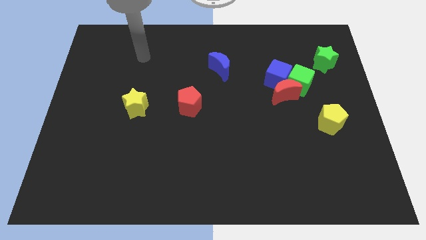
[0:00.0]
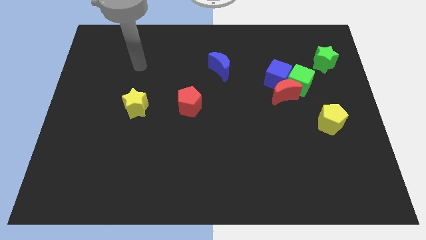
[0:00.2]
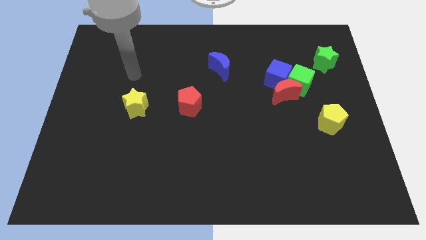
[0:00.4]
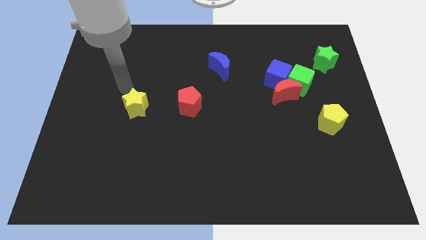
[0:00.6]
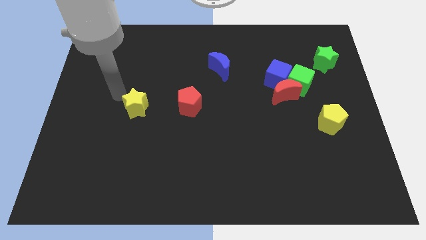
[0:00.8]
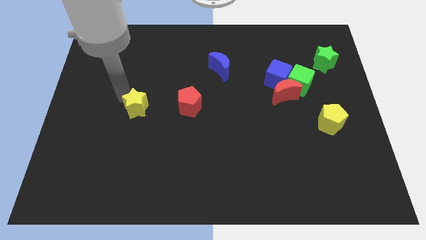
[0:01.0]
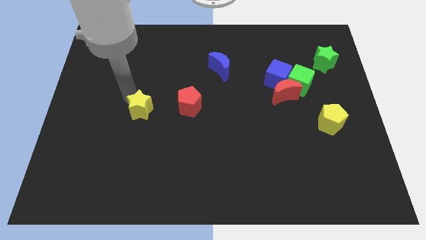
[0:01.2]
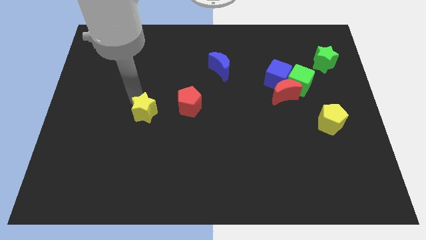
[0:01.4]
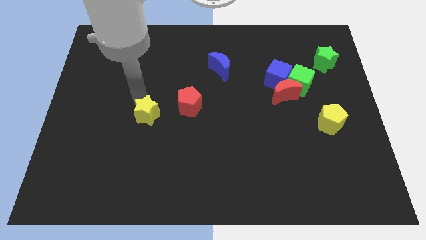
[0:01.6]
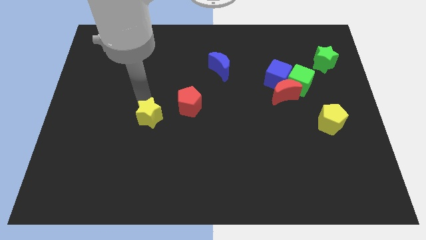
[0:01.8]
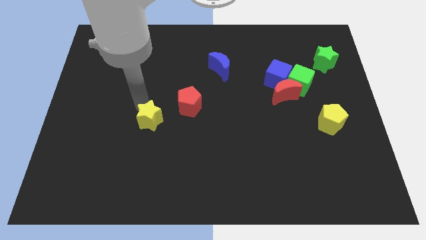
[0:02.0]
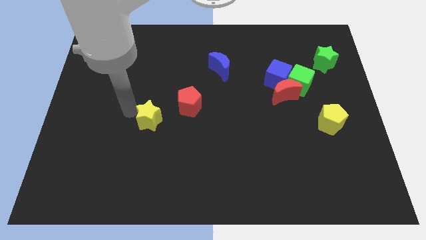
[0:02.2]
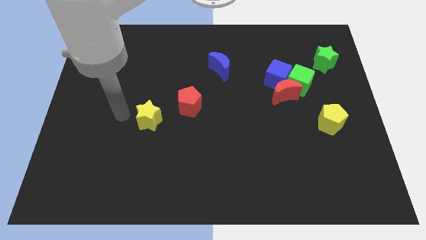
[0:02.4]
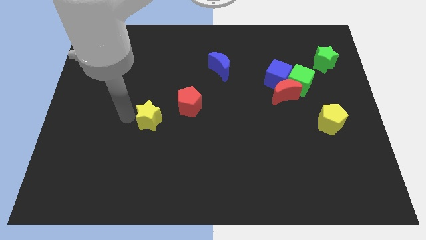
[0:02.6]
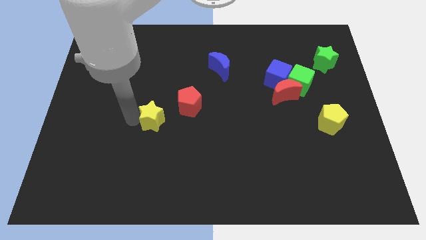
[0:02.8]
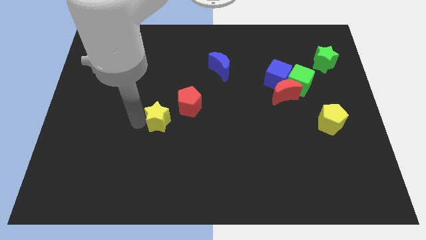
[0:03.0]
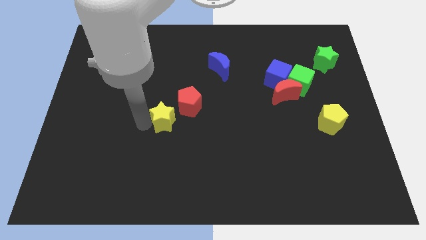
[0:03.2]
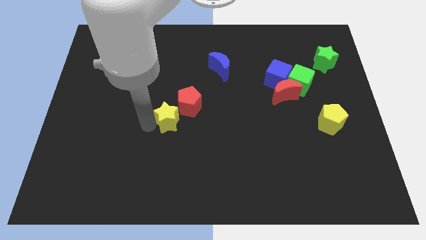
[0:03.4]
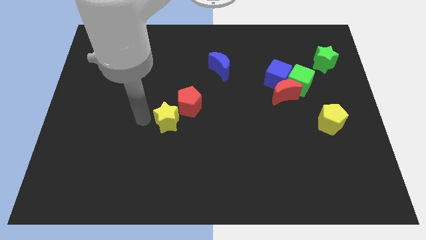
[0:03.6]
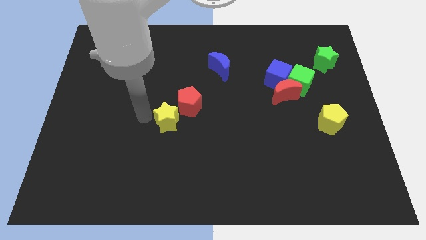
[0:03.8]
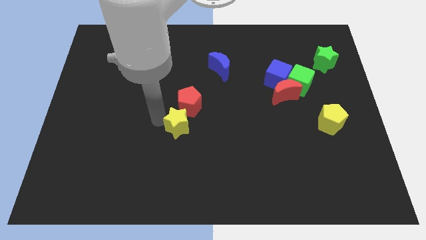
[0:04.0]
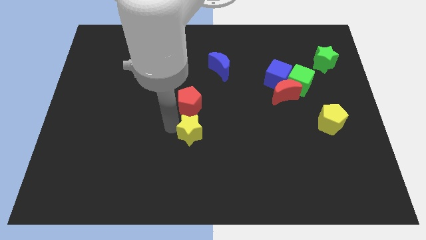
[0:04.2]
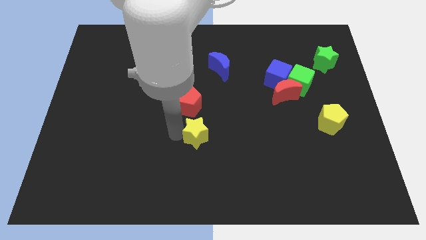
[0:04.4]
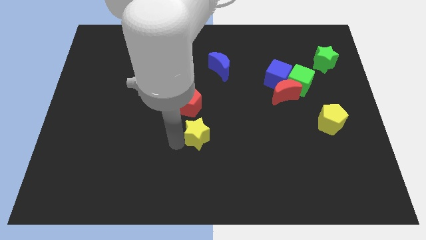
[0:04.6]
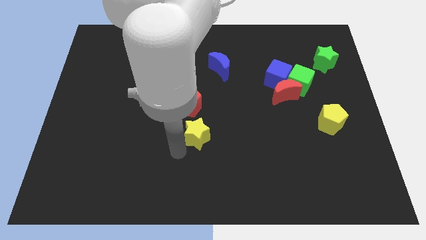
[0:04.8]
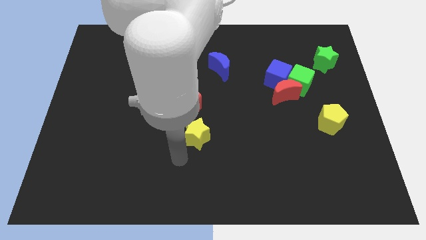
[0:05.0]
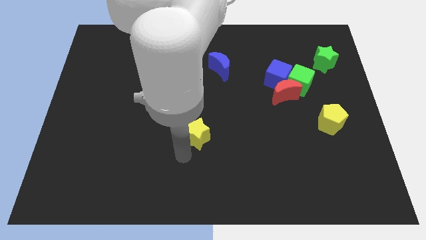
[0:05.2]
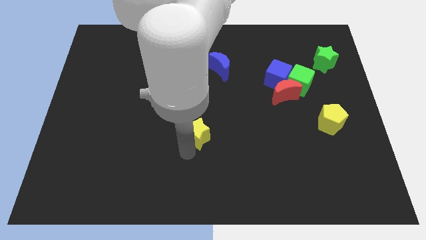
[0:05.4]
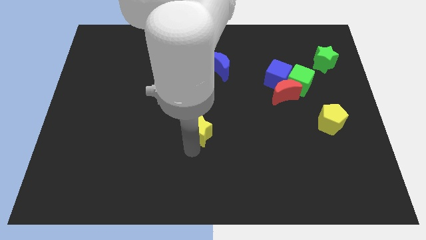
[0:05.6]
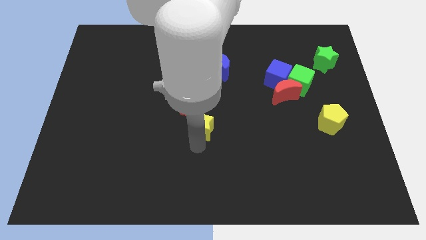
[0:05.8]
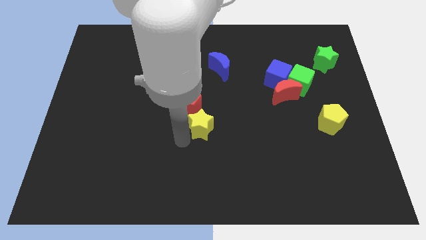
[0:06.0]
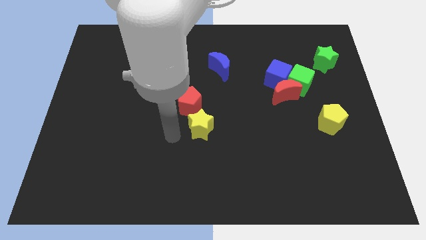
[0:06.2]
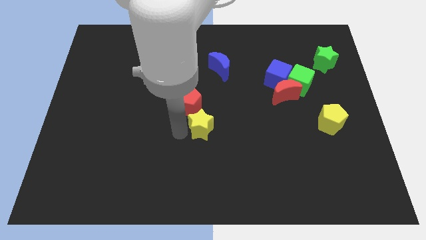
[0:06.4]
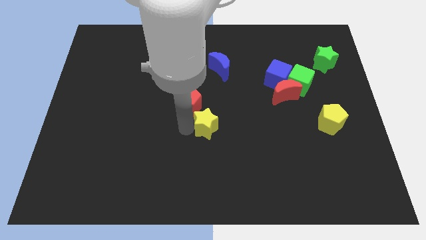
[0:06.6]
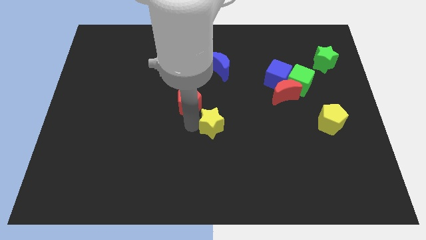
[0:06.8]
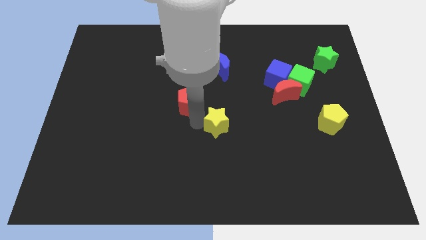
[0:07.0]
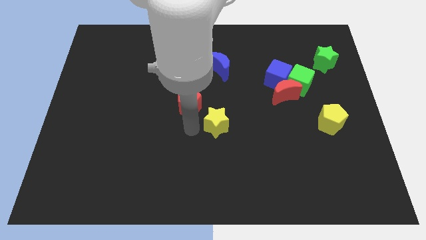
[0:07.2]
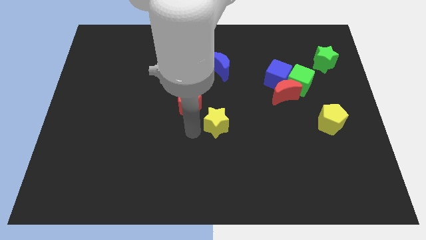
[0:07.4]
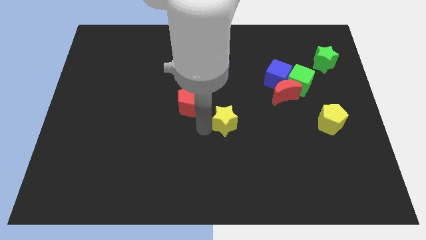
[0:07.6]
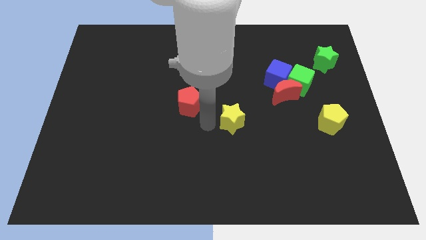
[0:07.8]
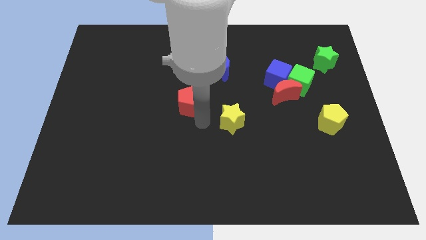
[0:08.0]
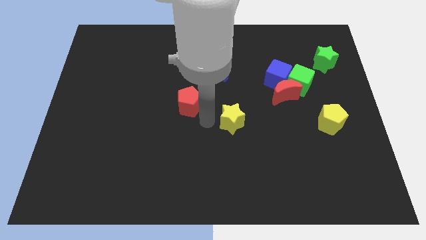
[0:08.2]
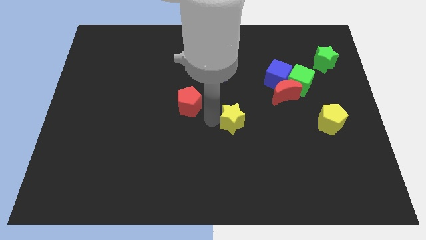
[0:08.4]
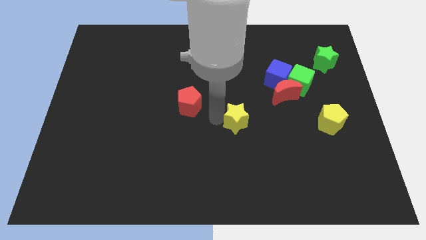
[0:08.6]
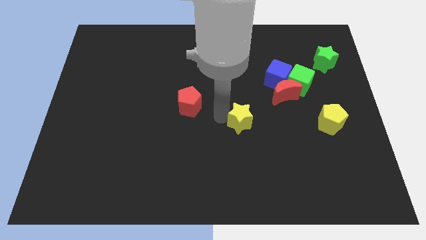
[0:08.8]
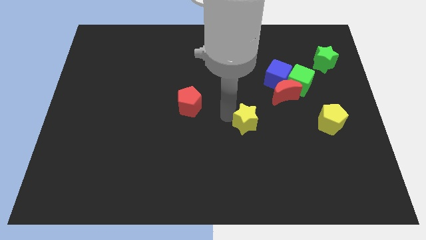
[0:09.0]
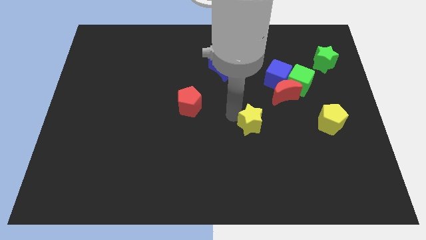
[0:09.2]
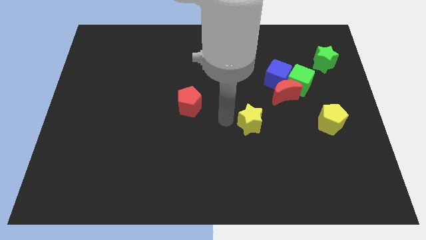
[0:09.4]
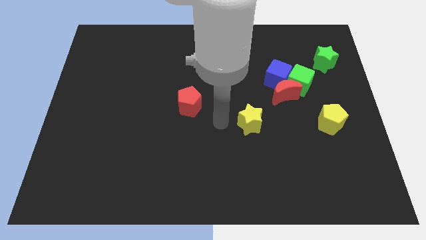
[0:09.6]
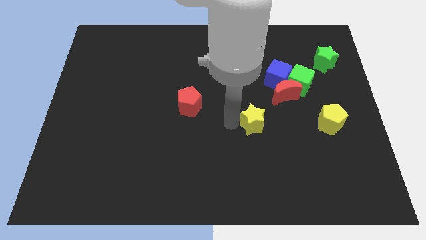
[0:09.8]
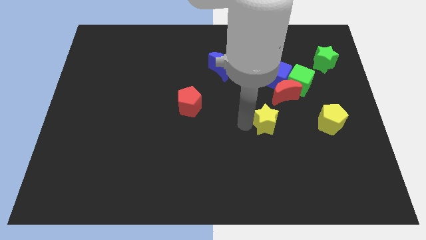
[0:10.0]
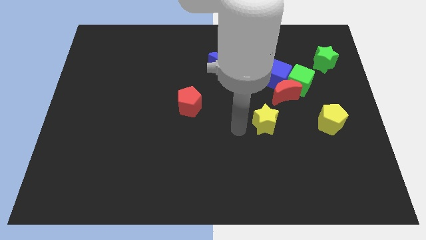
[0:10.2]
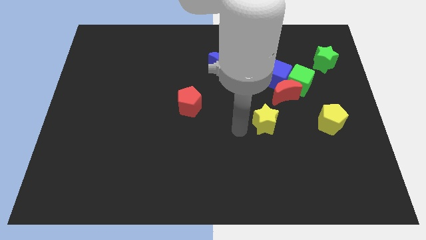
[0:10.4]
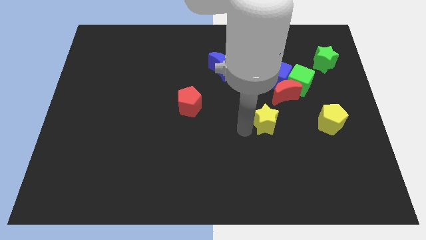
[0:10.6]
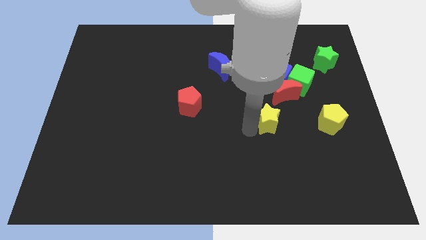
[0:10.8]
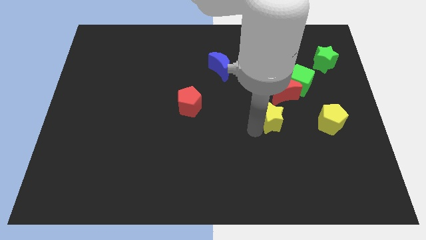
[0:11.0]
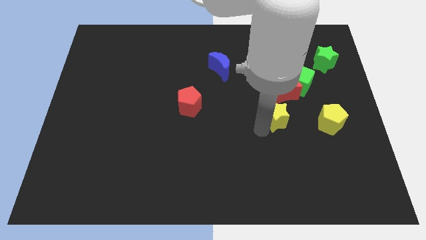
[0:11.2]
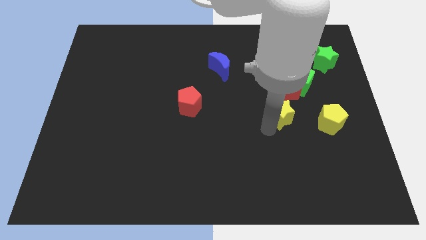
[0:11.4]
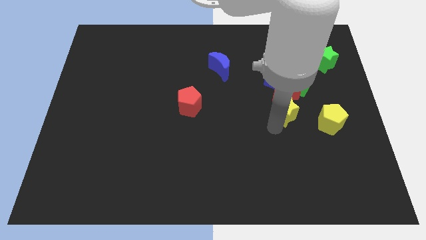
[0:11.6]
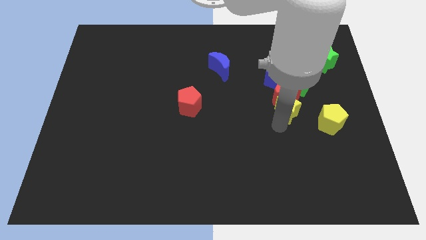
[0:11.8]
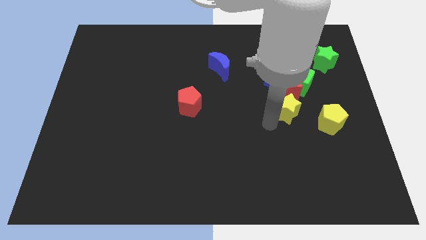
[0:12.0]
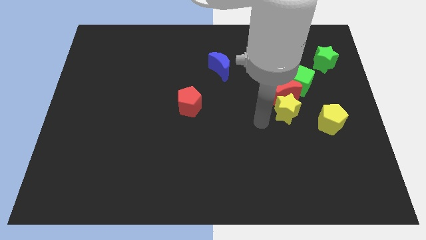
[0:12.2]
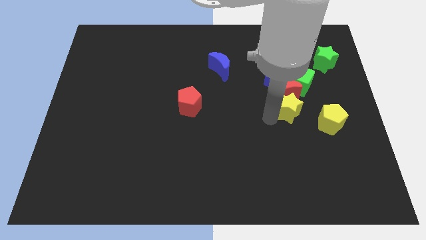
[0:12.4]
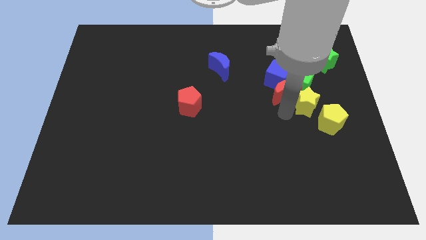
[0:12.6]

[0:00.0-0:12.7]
move the yellow star above the yellow pentagon

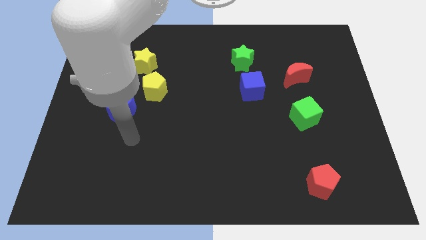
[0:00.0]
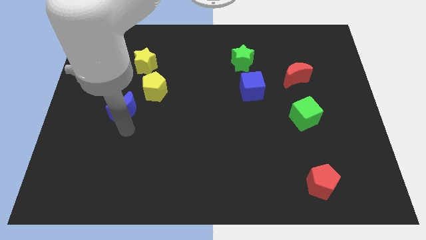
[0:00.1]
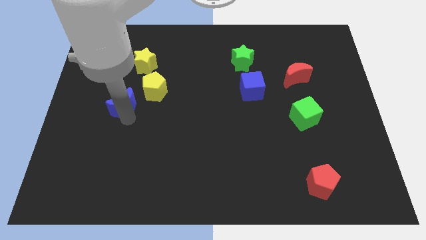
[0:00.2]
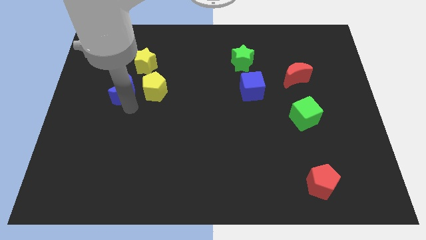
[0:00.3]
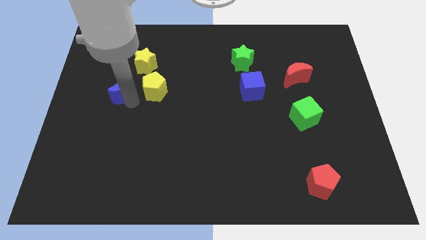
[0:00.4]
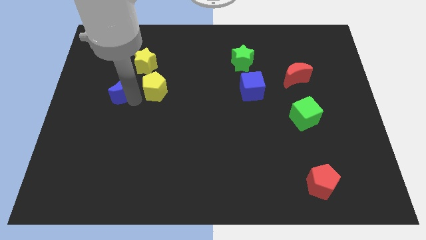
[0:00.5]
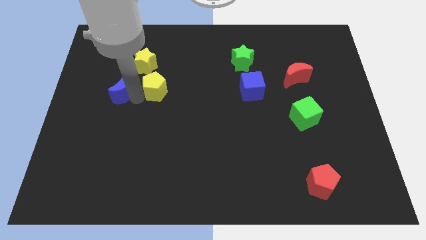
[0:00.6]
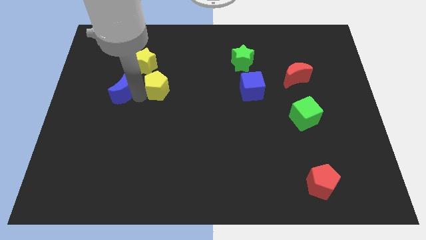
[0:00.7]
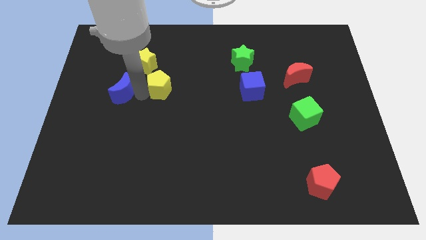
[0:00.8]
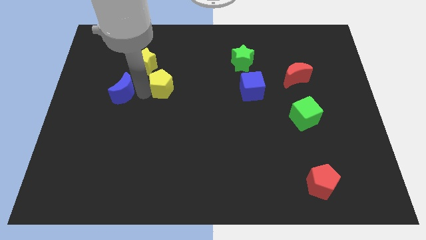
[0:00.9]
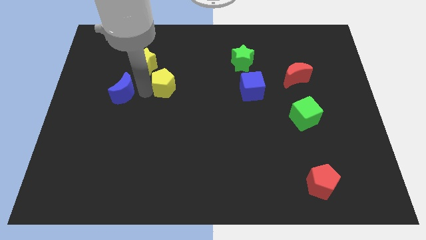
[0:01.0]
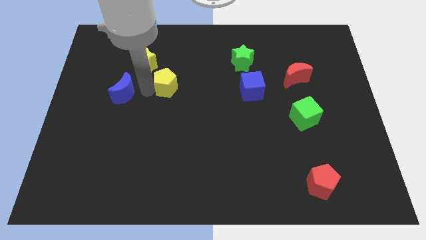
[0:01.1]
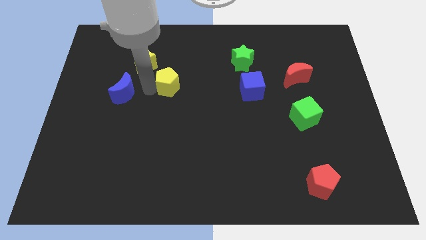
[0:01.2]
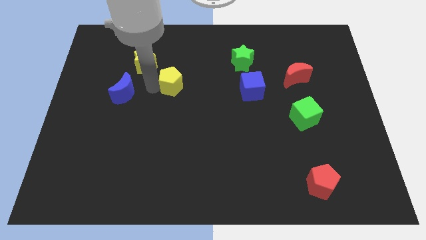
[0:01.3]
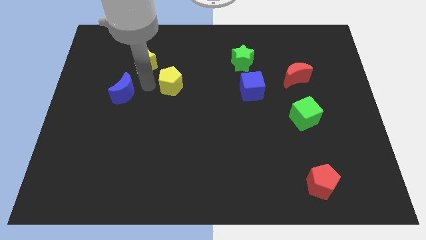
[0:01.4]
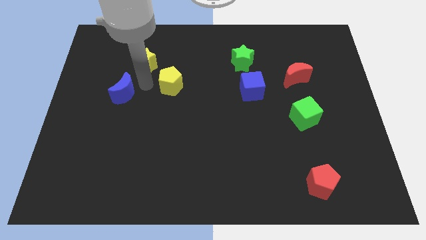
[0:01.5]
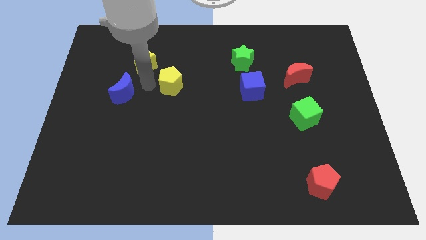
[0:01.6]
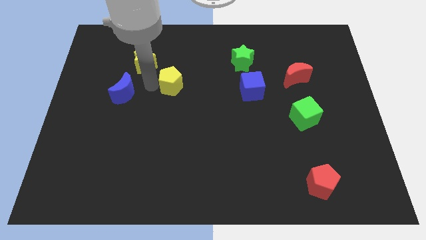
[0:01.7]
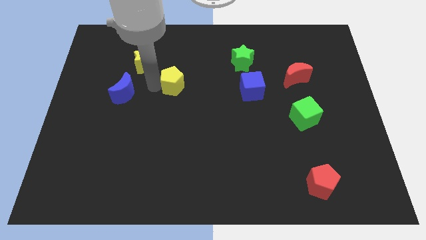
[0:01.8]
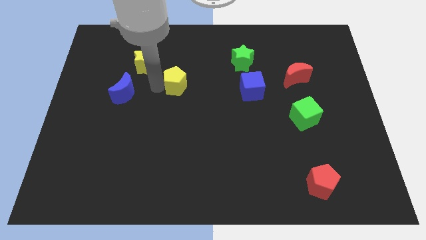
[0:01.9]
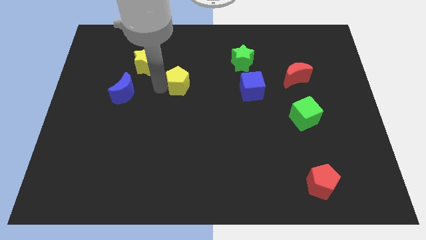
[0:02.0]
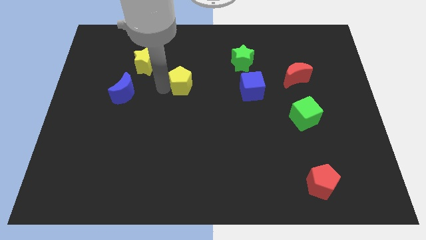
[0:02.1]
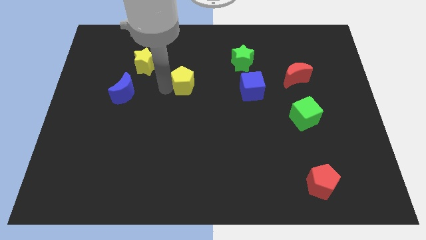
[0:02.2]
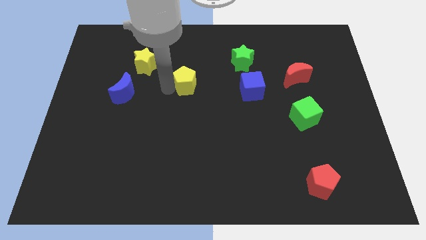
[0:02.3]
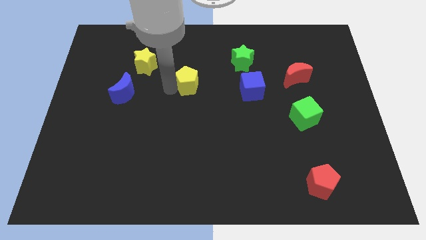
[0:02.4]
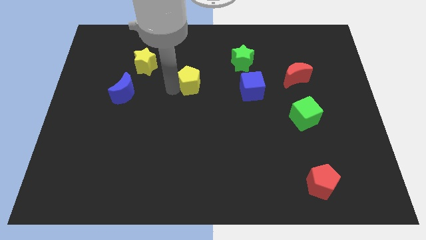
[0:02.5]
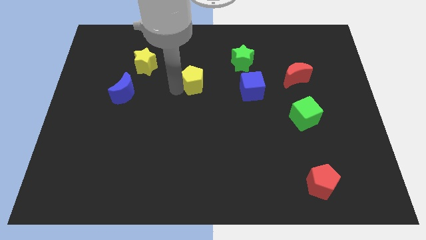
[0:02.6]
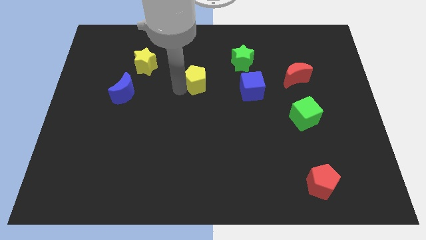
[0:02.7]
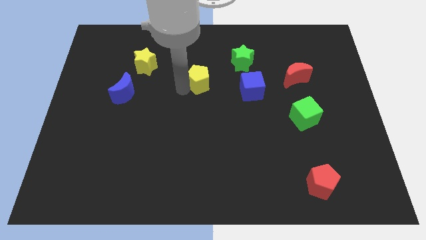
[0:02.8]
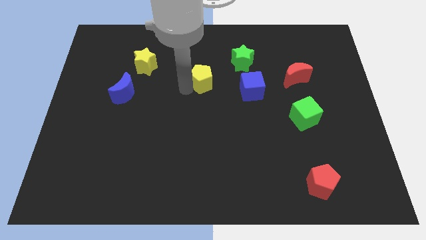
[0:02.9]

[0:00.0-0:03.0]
put the yellow pentagon to the bottom left of the green star
